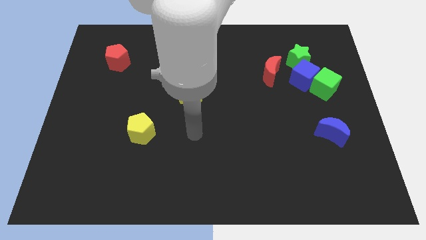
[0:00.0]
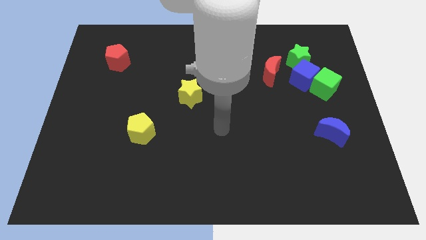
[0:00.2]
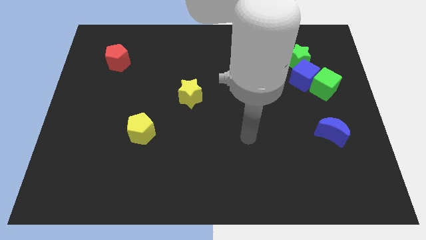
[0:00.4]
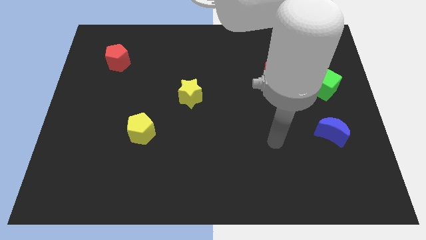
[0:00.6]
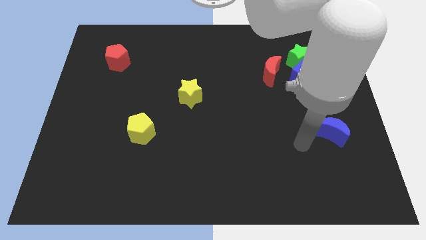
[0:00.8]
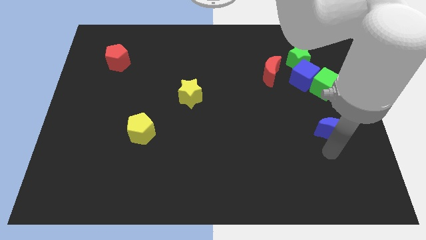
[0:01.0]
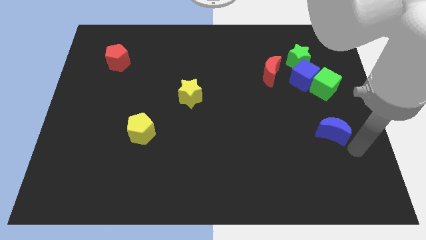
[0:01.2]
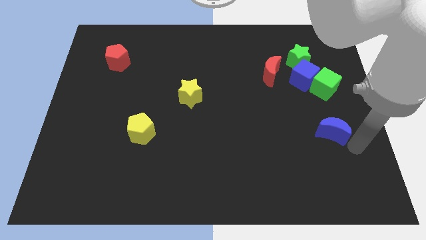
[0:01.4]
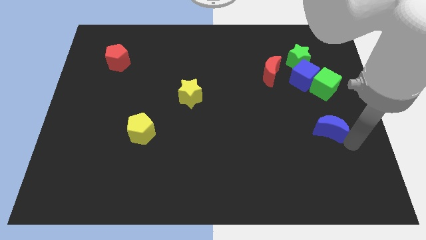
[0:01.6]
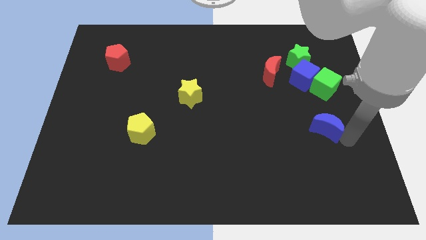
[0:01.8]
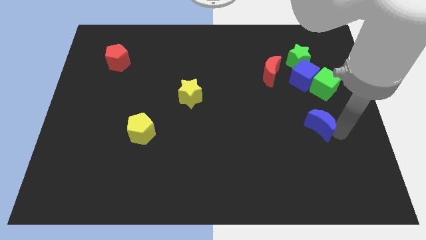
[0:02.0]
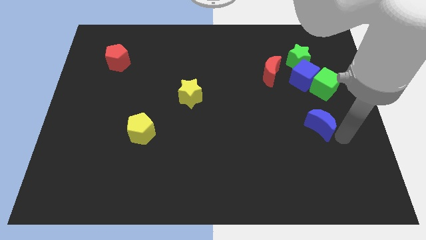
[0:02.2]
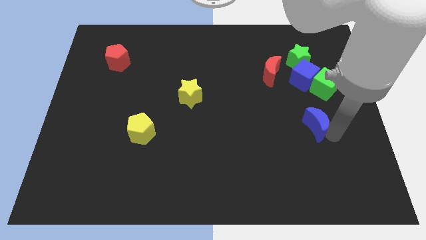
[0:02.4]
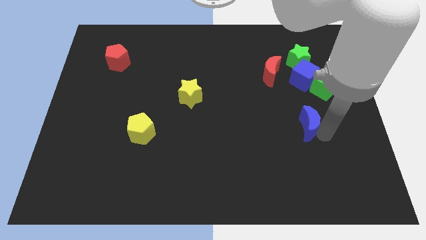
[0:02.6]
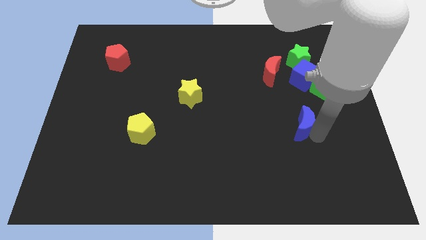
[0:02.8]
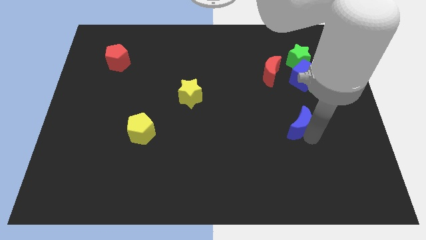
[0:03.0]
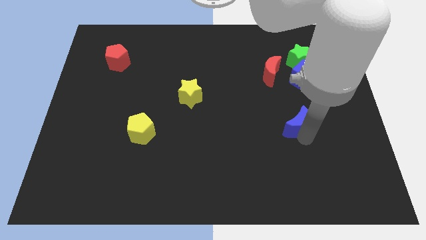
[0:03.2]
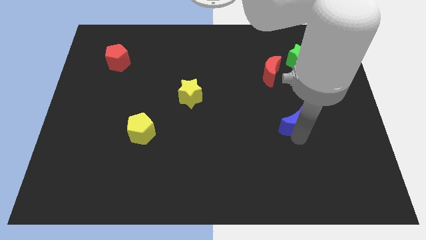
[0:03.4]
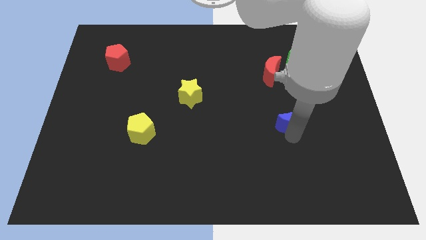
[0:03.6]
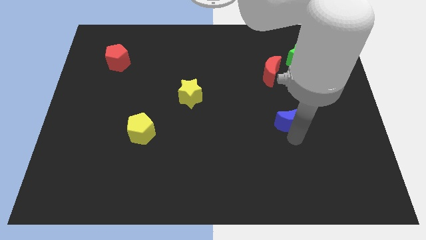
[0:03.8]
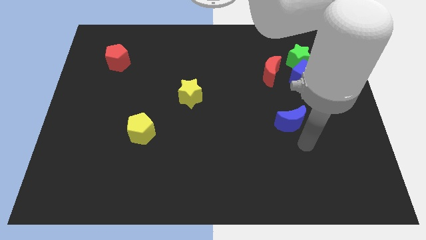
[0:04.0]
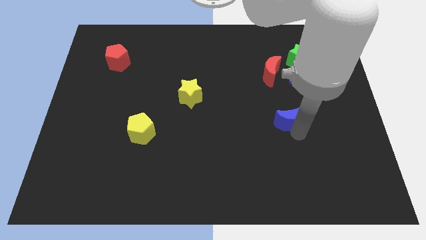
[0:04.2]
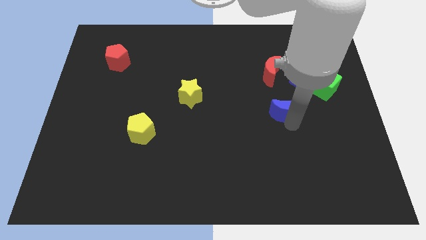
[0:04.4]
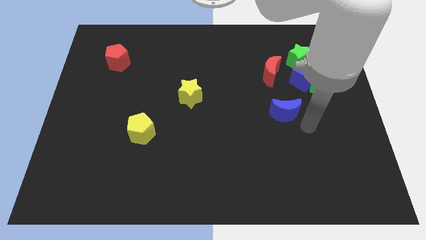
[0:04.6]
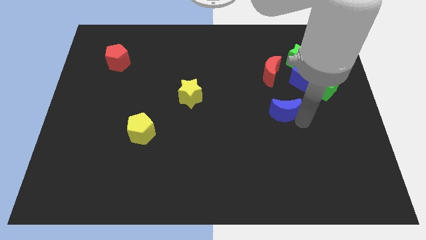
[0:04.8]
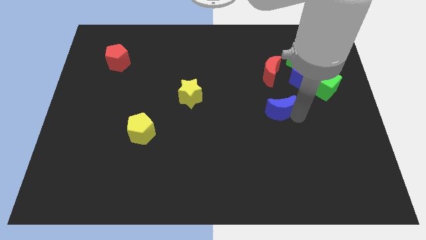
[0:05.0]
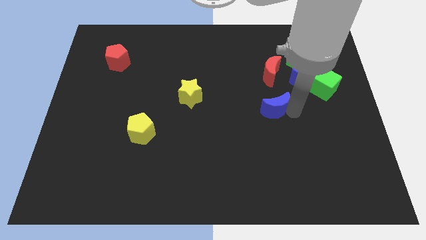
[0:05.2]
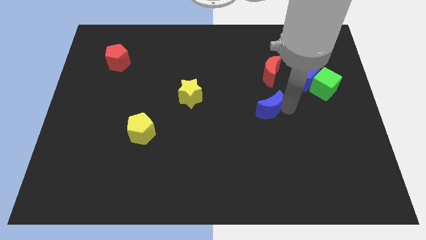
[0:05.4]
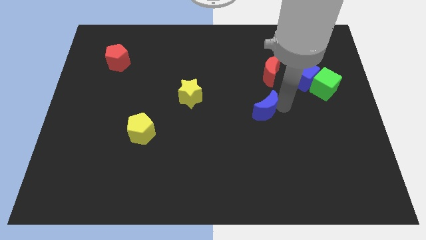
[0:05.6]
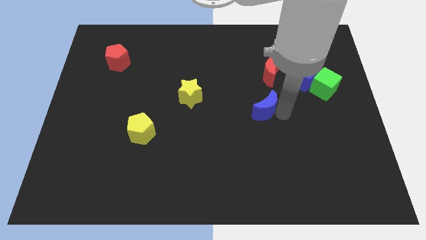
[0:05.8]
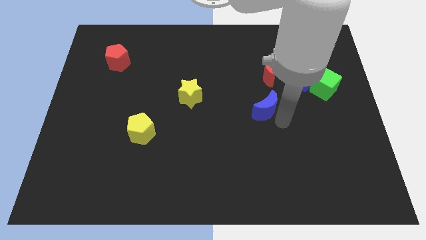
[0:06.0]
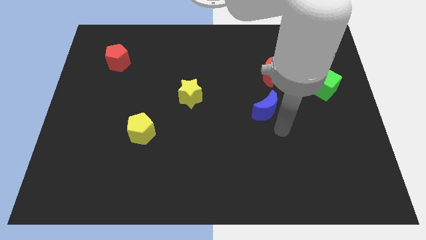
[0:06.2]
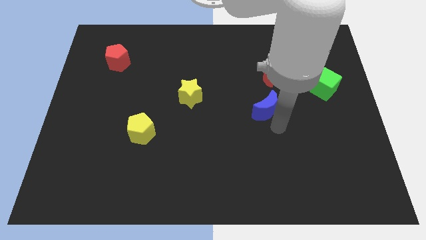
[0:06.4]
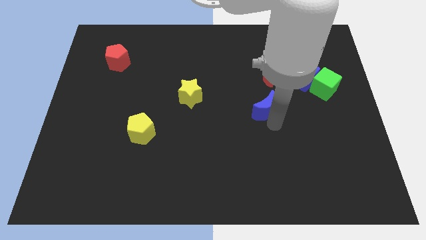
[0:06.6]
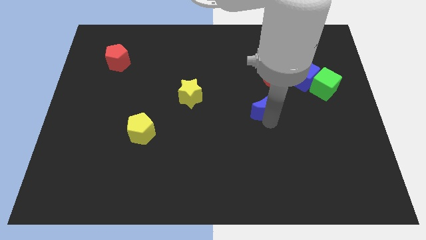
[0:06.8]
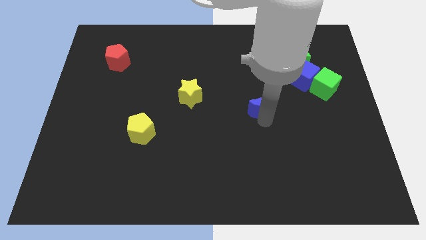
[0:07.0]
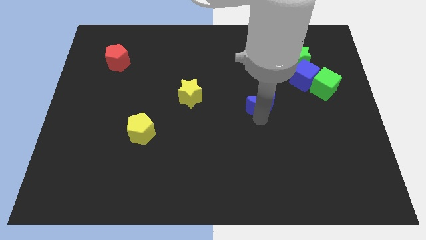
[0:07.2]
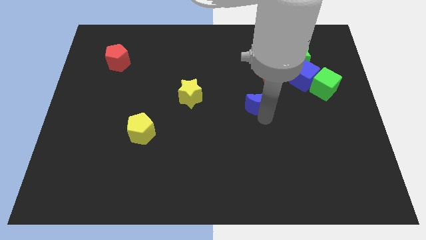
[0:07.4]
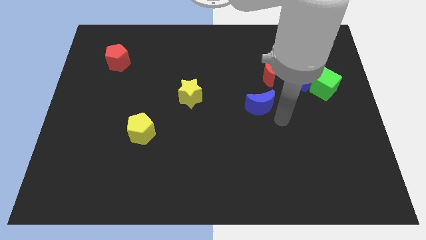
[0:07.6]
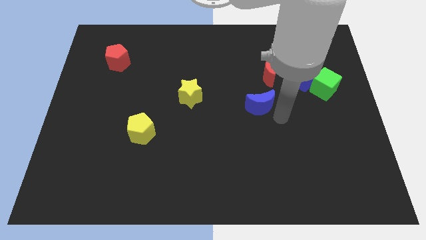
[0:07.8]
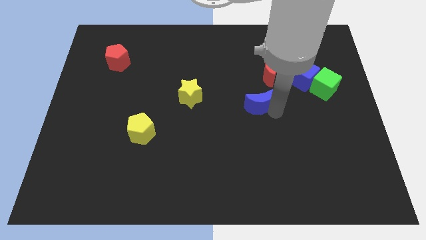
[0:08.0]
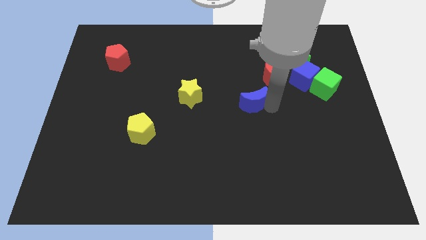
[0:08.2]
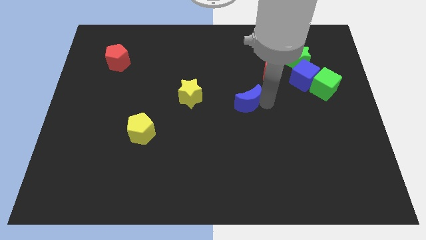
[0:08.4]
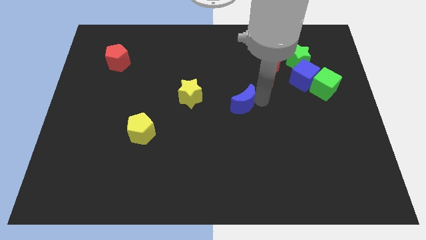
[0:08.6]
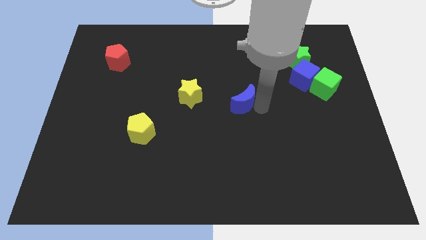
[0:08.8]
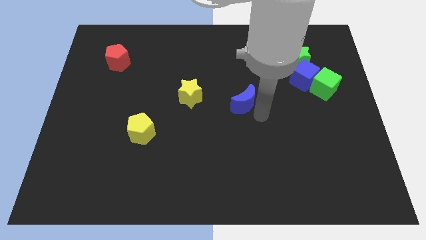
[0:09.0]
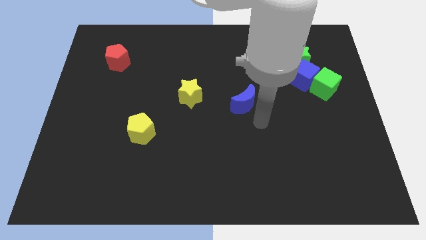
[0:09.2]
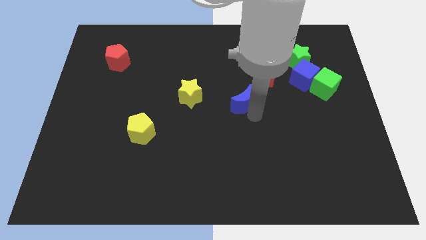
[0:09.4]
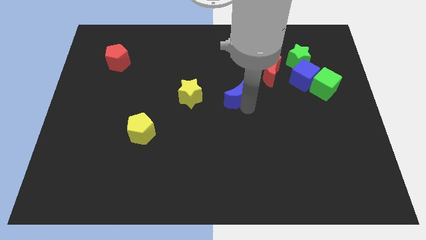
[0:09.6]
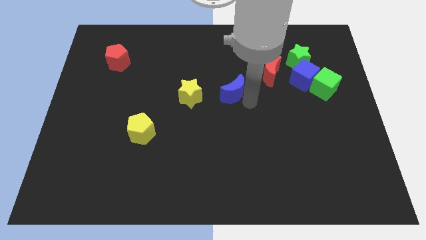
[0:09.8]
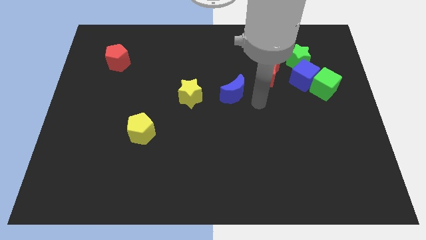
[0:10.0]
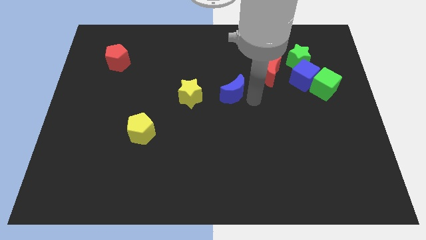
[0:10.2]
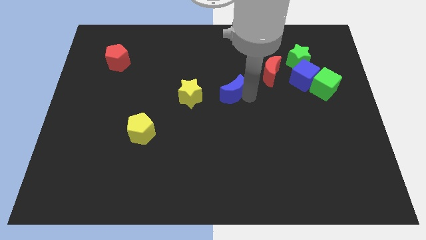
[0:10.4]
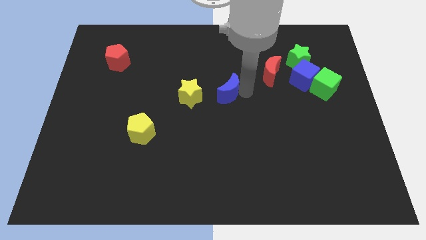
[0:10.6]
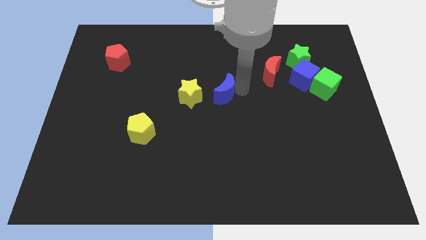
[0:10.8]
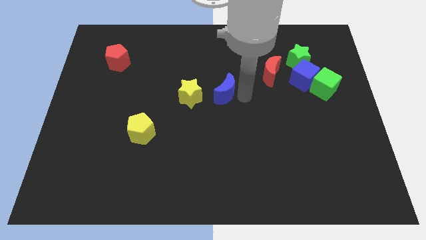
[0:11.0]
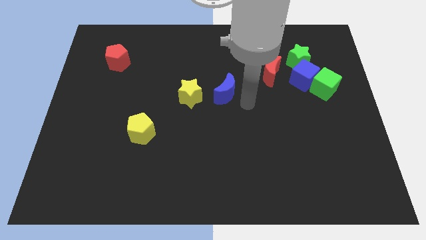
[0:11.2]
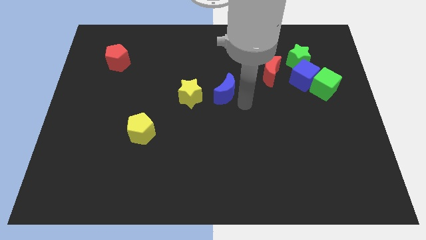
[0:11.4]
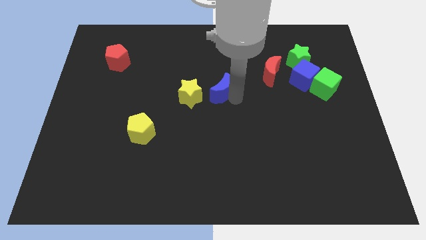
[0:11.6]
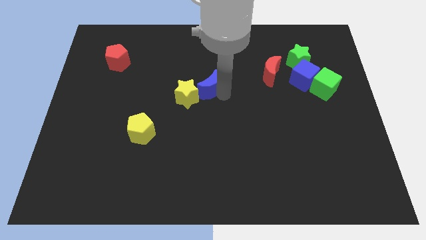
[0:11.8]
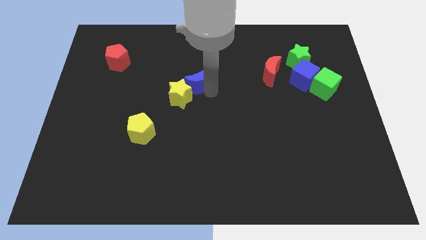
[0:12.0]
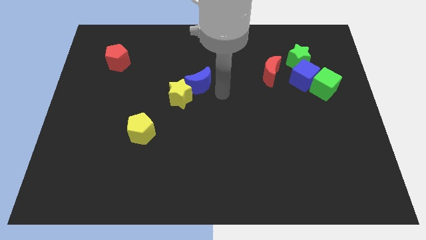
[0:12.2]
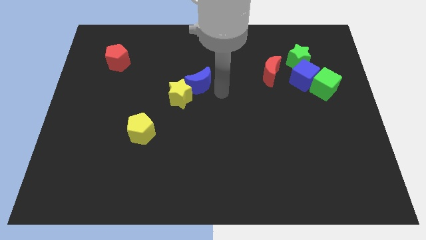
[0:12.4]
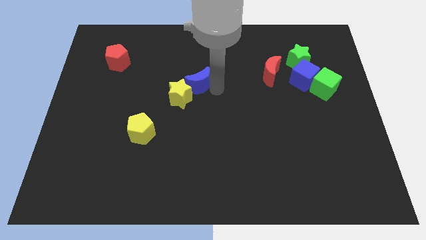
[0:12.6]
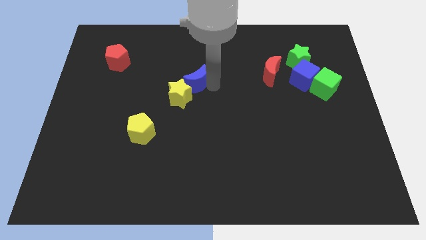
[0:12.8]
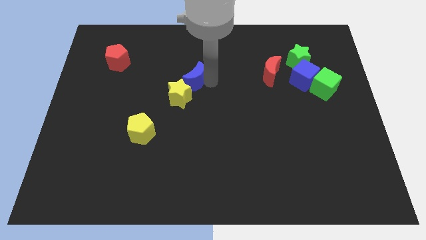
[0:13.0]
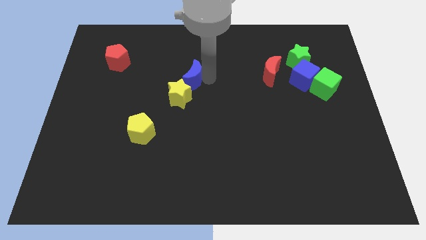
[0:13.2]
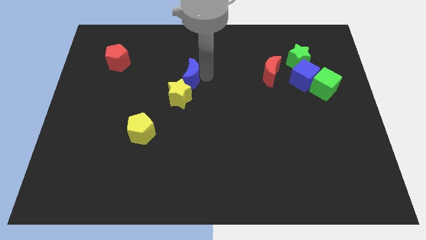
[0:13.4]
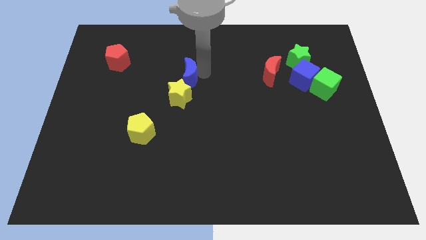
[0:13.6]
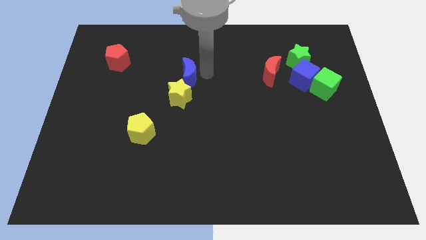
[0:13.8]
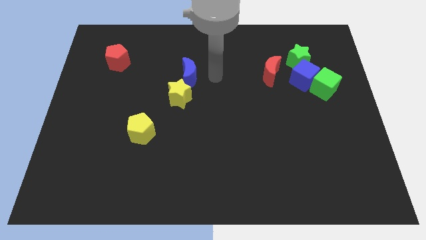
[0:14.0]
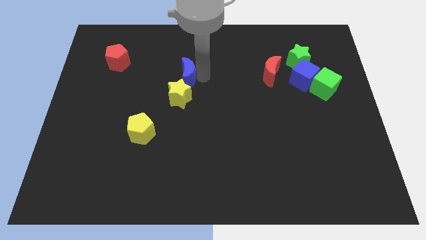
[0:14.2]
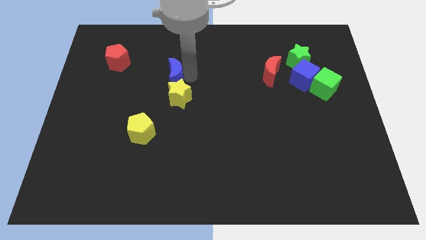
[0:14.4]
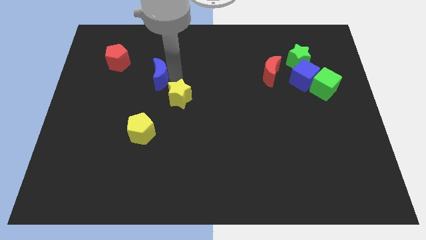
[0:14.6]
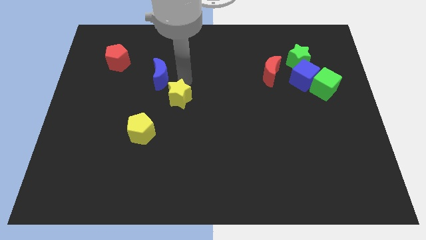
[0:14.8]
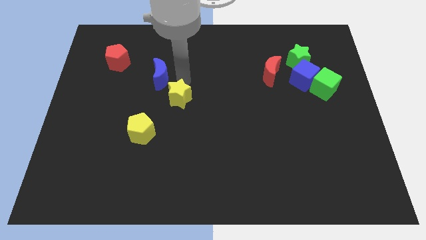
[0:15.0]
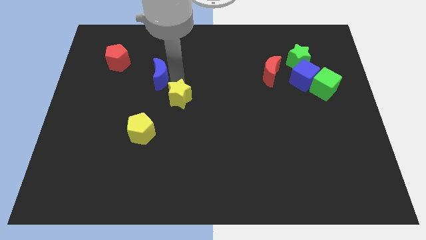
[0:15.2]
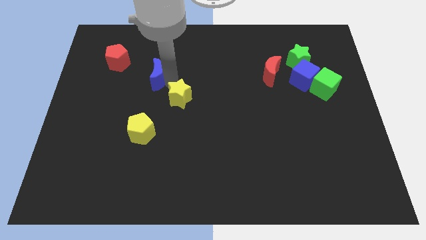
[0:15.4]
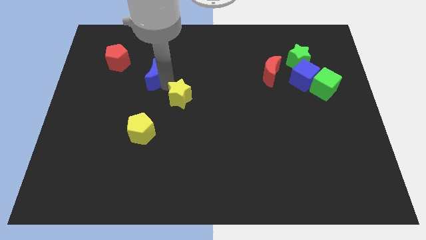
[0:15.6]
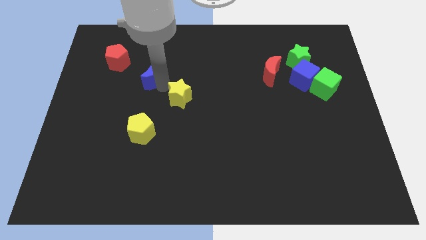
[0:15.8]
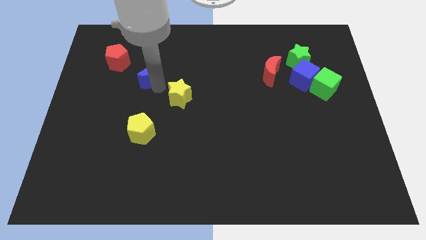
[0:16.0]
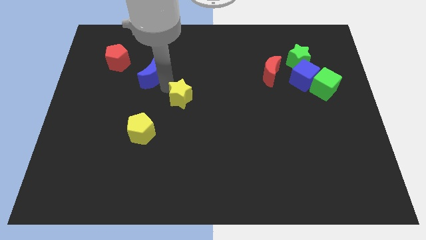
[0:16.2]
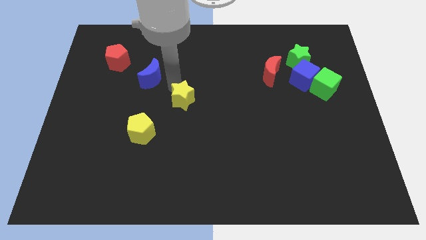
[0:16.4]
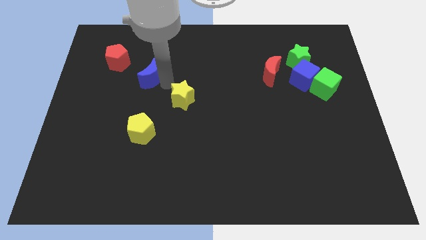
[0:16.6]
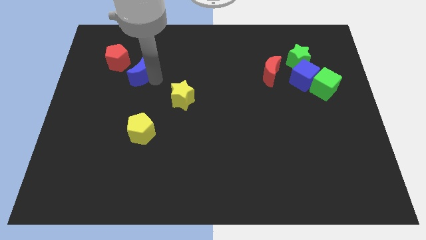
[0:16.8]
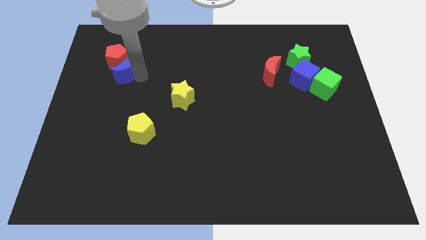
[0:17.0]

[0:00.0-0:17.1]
put the blue moon to the red pentagon
